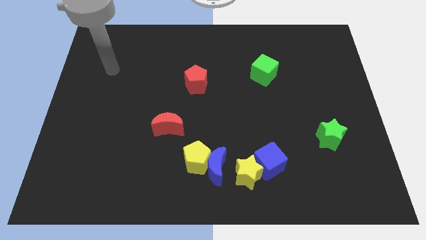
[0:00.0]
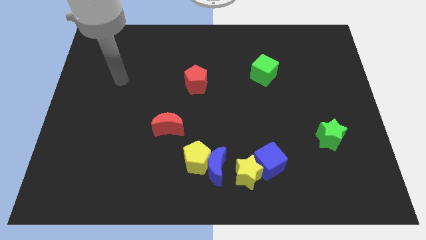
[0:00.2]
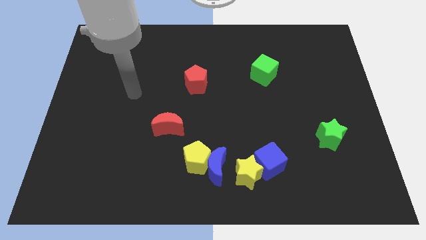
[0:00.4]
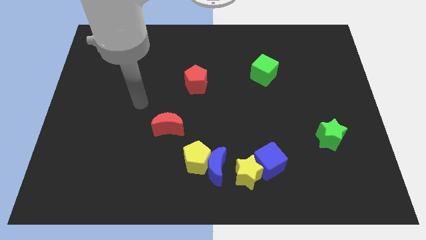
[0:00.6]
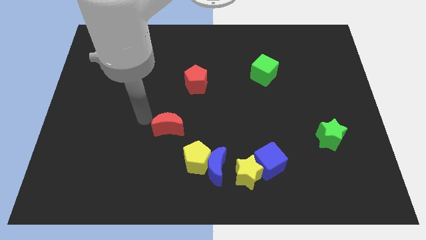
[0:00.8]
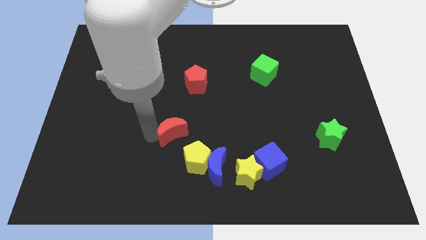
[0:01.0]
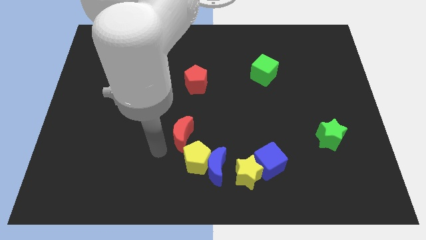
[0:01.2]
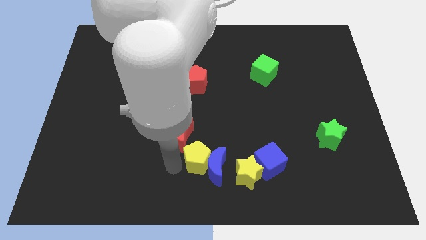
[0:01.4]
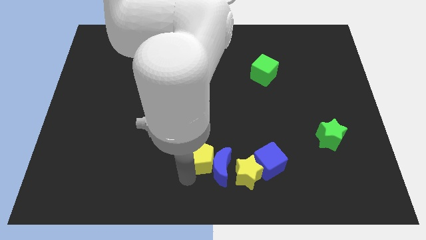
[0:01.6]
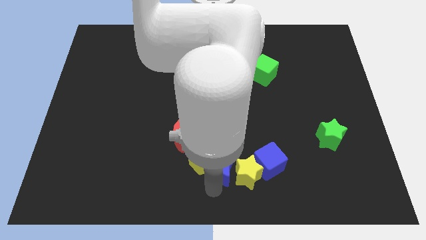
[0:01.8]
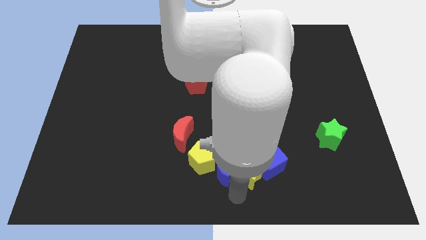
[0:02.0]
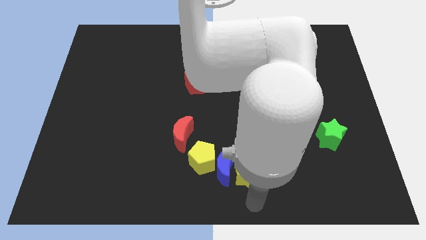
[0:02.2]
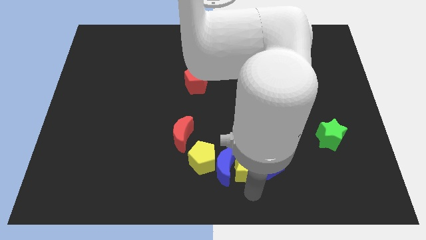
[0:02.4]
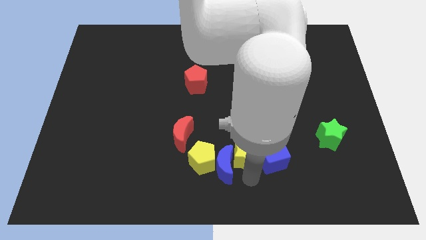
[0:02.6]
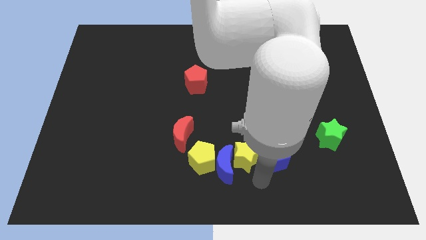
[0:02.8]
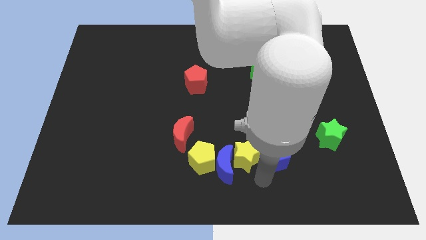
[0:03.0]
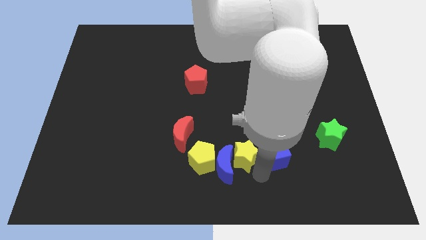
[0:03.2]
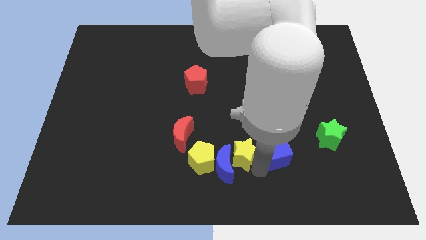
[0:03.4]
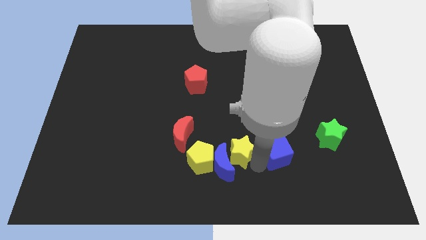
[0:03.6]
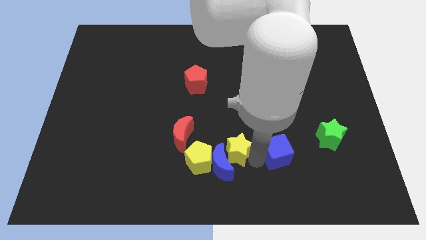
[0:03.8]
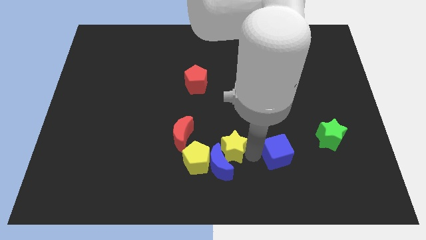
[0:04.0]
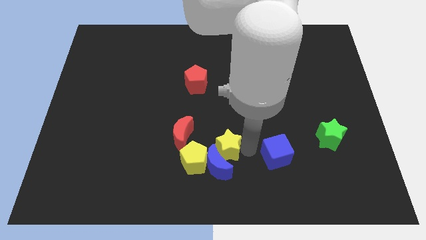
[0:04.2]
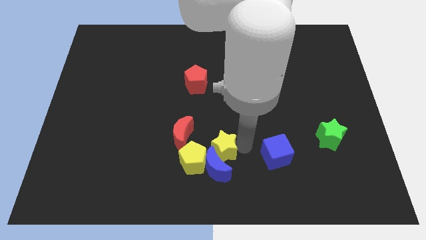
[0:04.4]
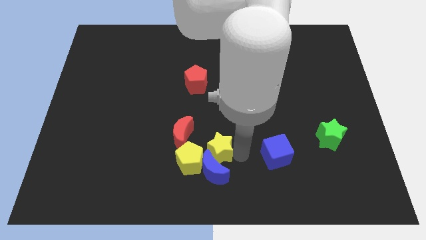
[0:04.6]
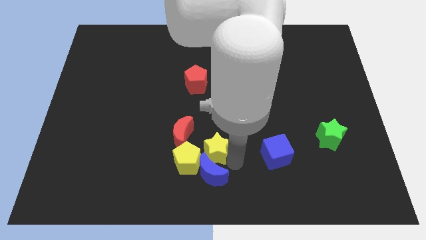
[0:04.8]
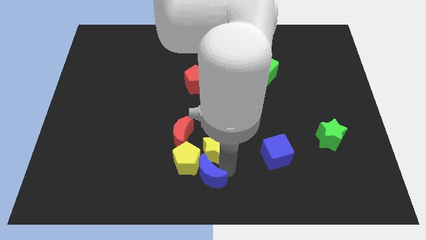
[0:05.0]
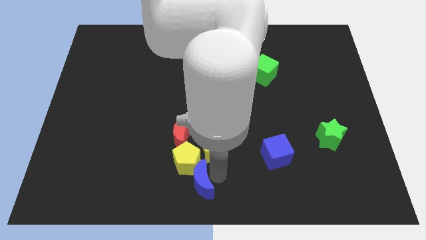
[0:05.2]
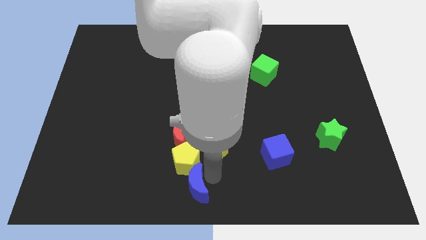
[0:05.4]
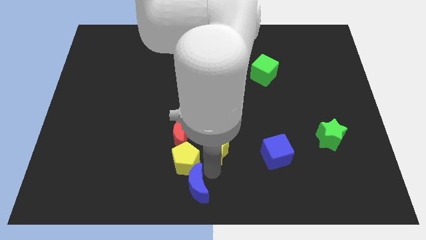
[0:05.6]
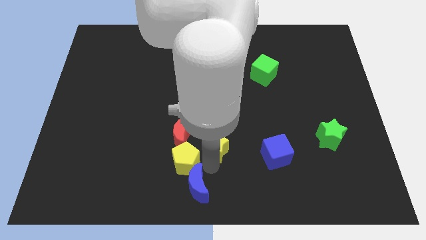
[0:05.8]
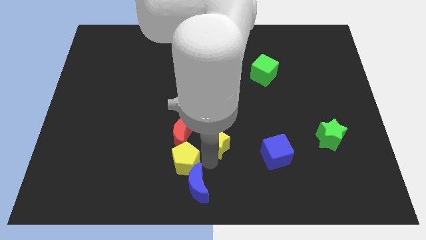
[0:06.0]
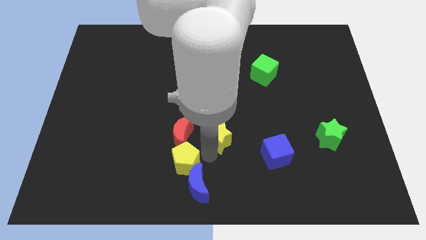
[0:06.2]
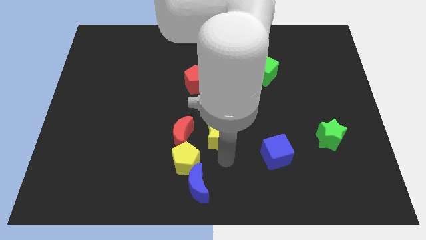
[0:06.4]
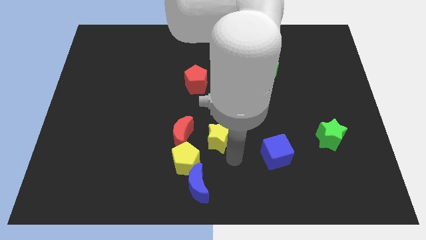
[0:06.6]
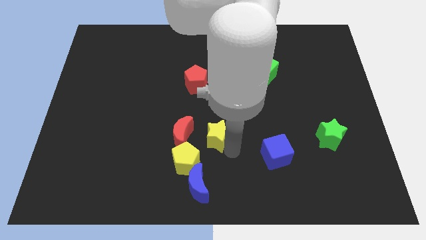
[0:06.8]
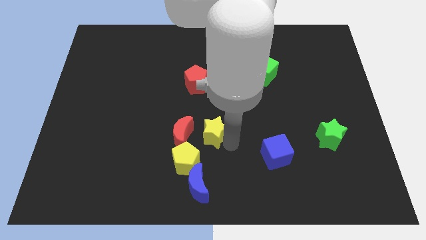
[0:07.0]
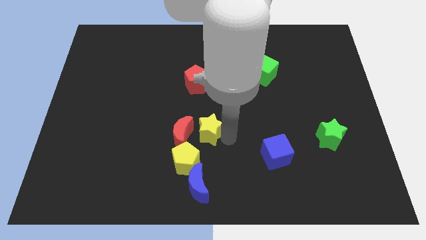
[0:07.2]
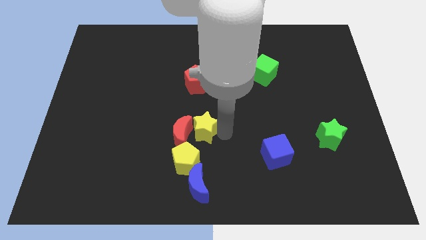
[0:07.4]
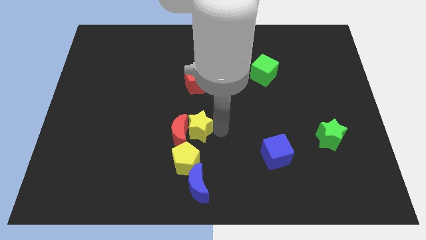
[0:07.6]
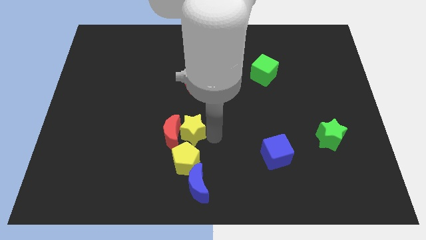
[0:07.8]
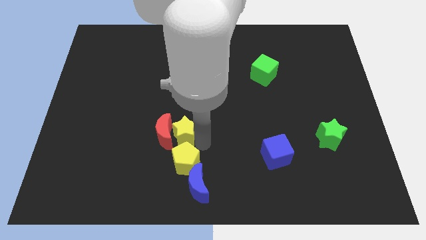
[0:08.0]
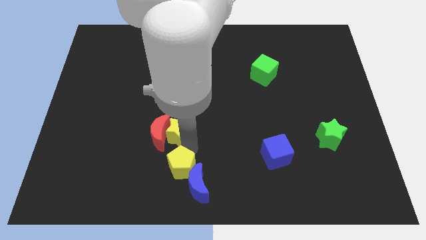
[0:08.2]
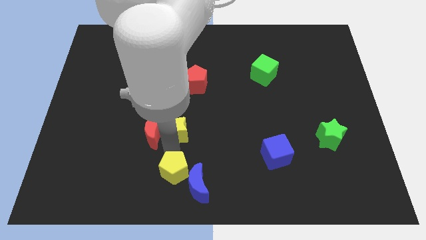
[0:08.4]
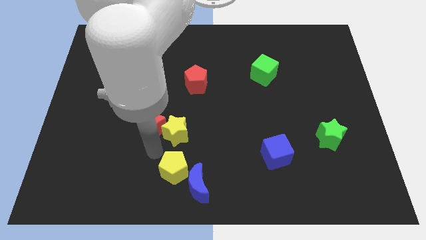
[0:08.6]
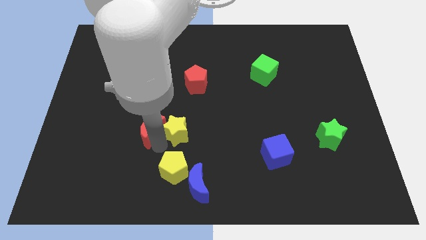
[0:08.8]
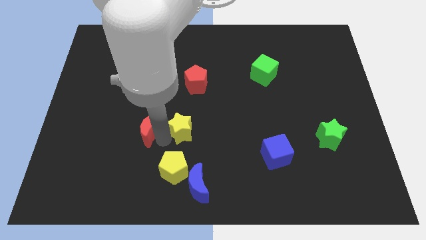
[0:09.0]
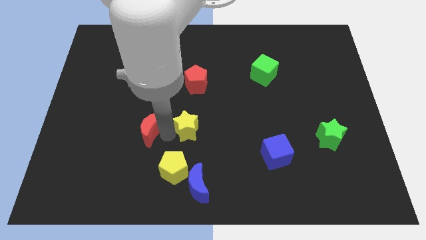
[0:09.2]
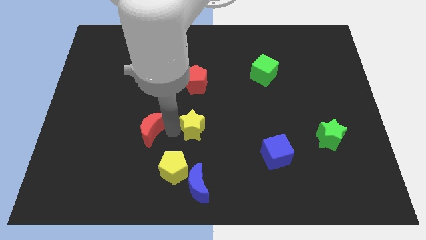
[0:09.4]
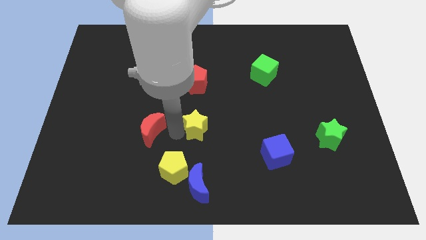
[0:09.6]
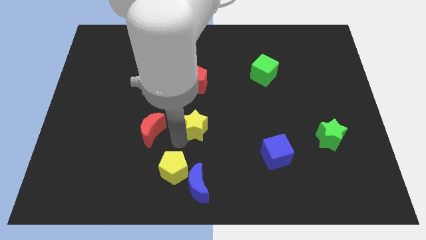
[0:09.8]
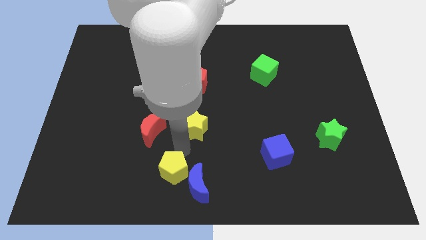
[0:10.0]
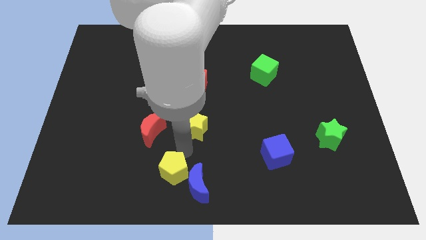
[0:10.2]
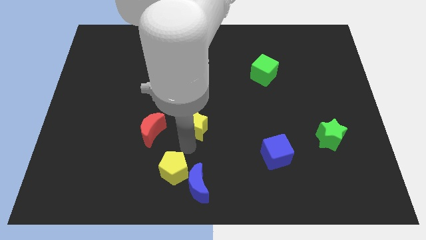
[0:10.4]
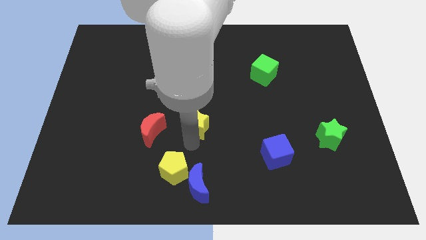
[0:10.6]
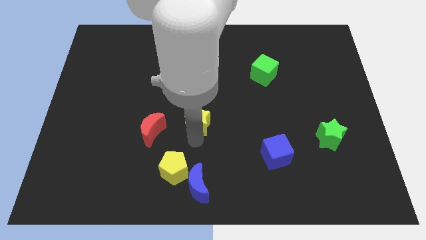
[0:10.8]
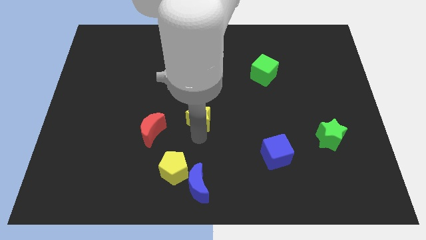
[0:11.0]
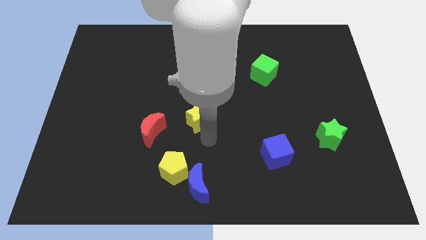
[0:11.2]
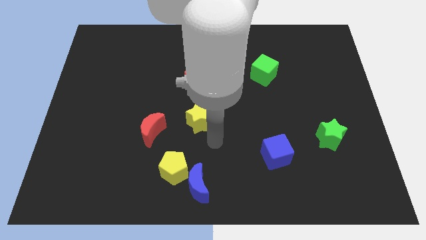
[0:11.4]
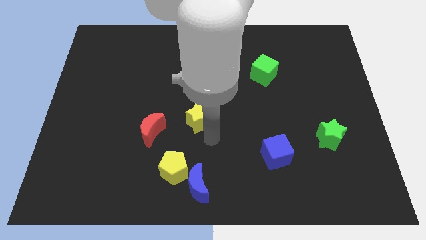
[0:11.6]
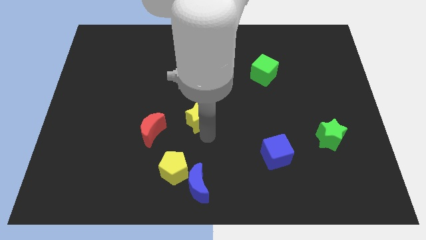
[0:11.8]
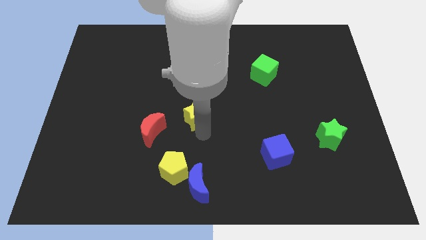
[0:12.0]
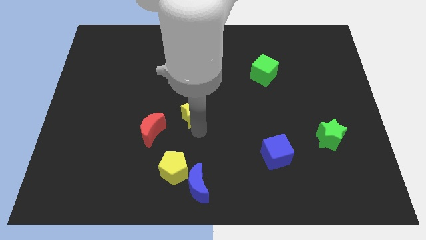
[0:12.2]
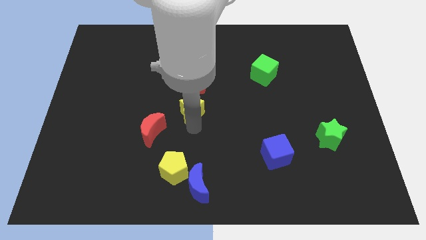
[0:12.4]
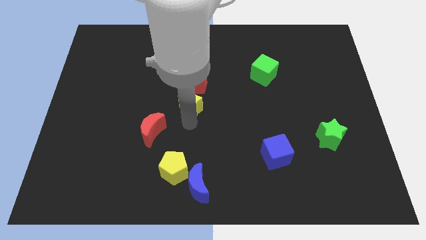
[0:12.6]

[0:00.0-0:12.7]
put the yellow star diagonally down and to the left of the red pentagon

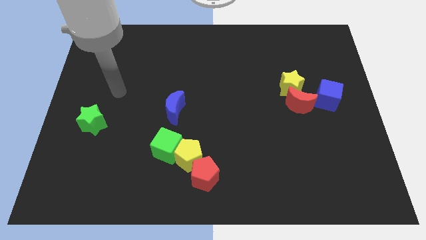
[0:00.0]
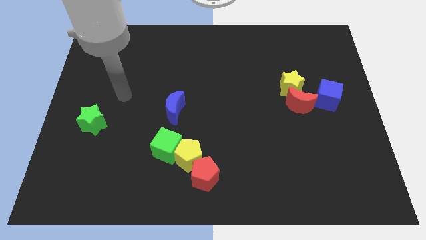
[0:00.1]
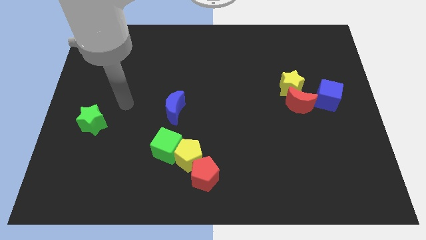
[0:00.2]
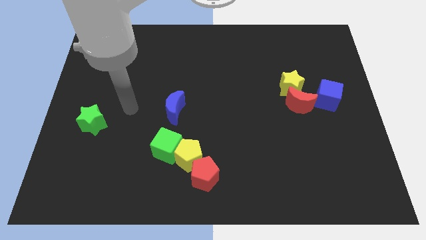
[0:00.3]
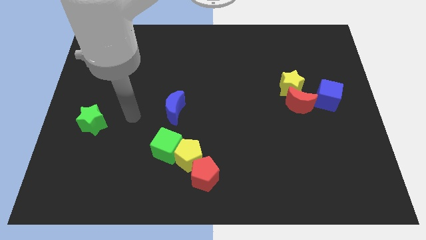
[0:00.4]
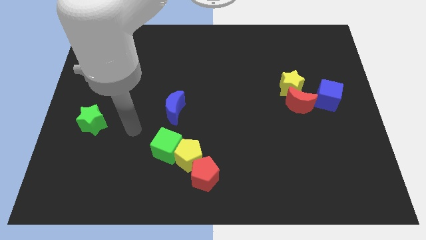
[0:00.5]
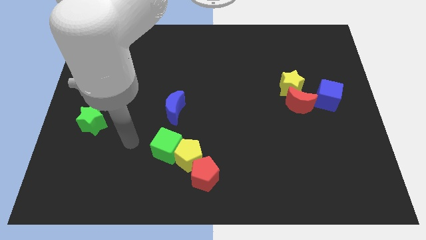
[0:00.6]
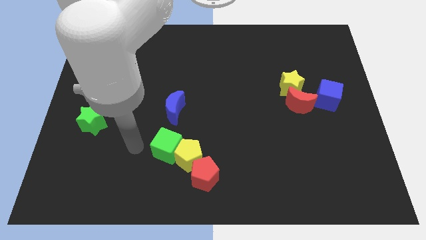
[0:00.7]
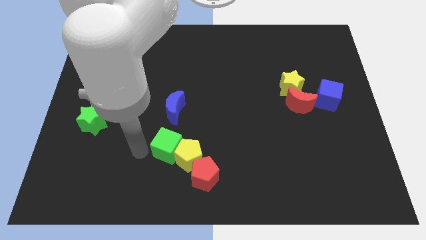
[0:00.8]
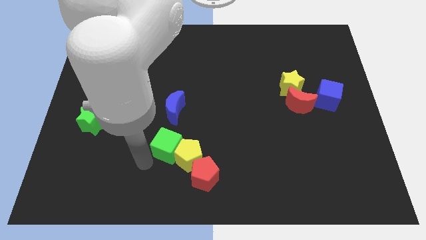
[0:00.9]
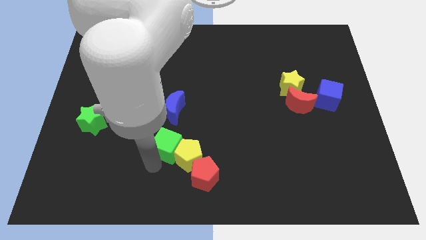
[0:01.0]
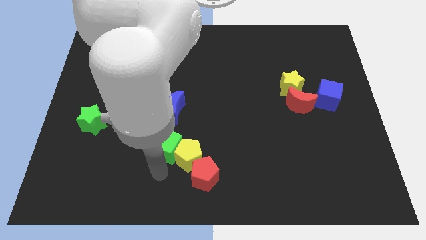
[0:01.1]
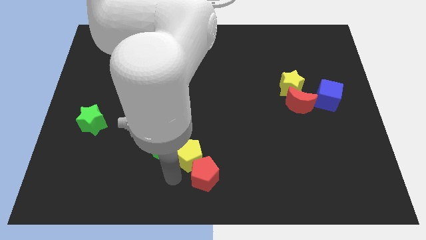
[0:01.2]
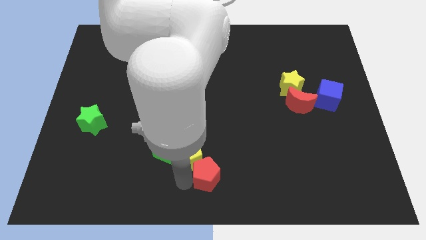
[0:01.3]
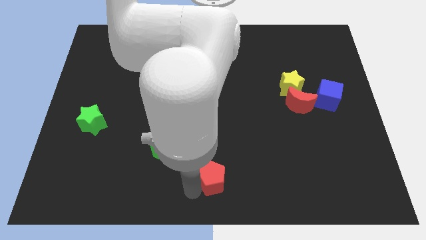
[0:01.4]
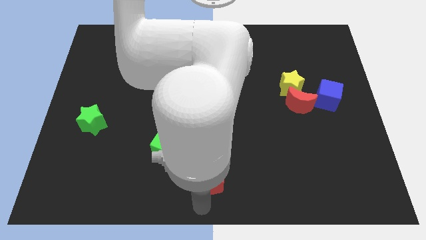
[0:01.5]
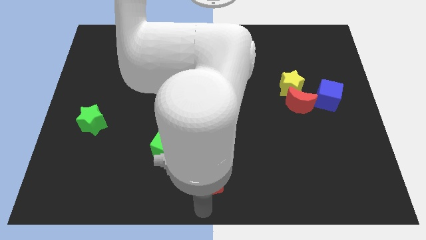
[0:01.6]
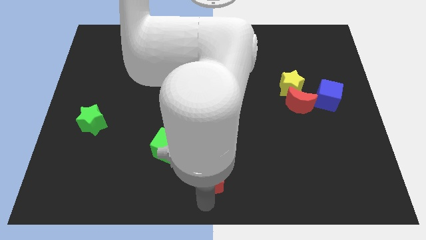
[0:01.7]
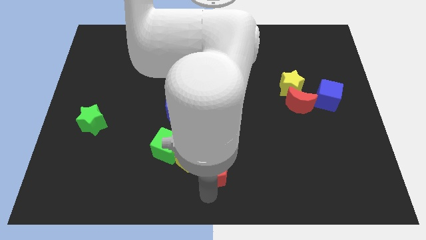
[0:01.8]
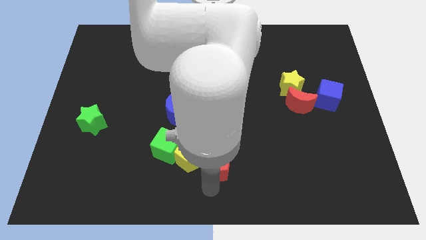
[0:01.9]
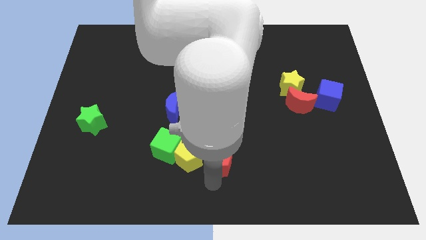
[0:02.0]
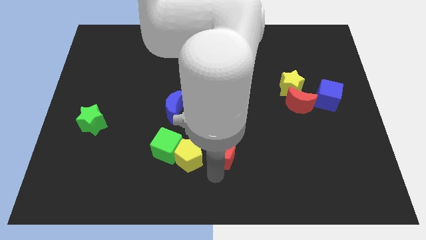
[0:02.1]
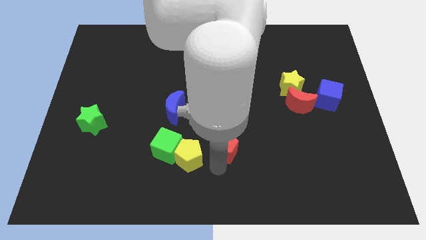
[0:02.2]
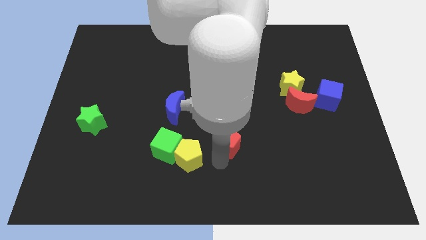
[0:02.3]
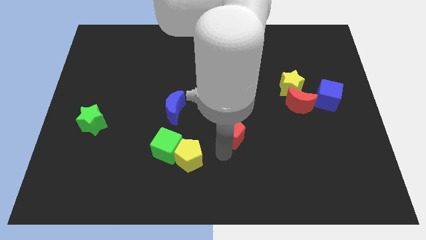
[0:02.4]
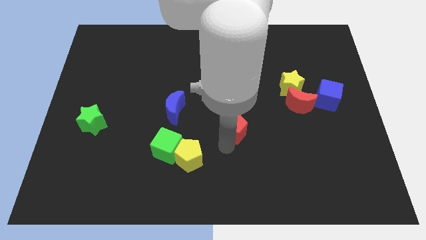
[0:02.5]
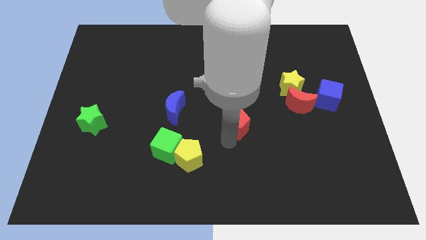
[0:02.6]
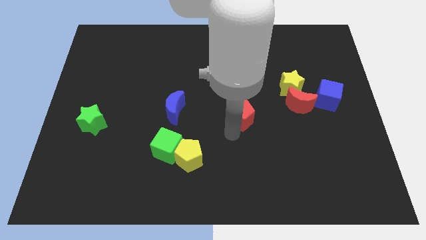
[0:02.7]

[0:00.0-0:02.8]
slide the red pentagon just left of the red moon
